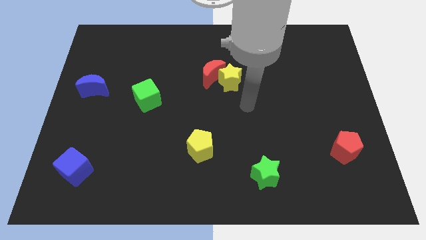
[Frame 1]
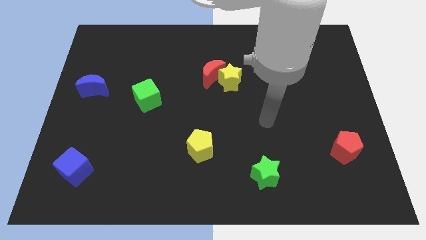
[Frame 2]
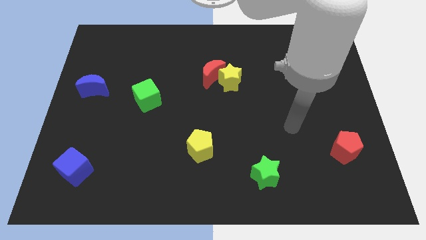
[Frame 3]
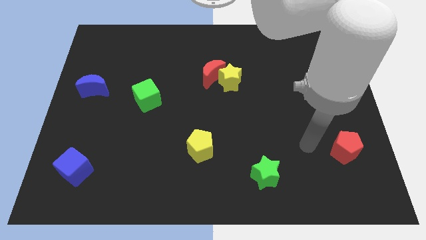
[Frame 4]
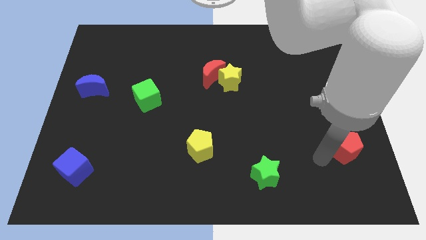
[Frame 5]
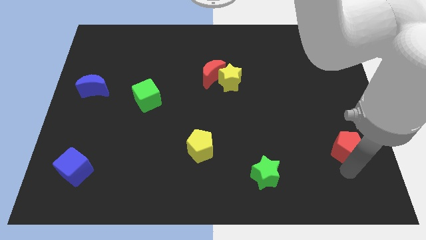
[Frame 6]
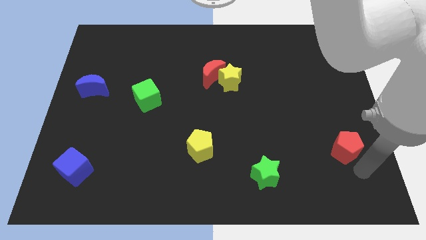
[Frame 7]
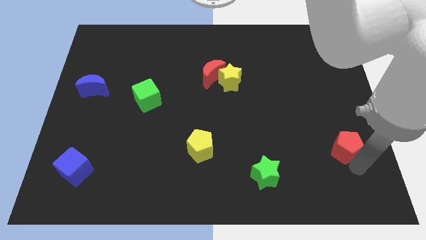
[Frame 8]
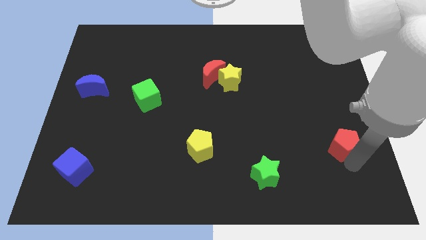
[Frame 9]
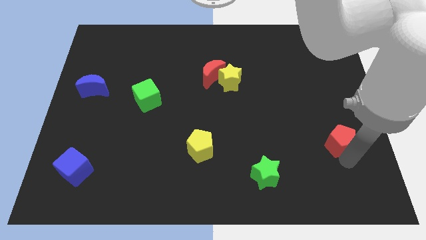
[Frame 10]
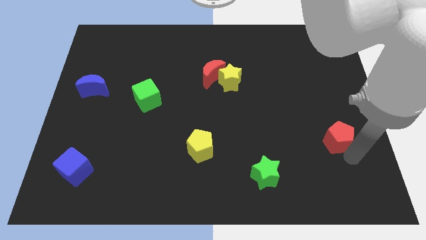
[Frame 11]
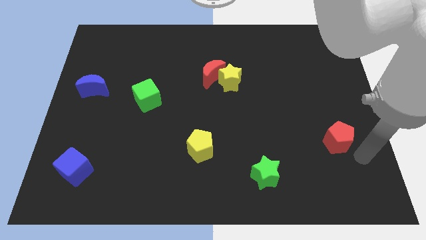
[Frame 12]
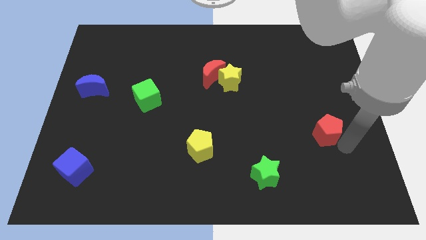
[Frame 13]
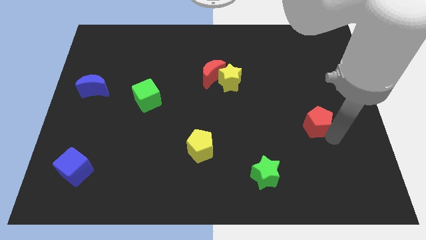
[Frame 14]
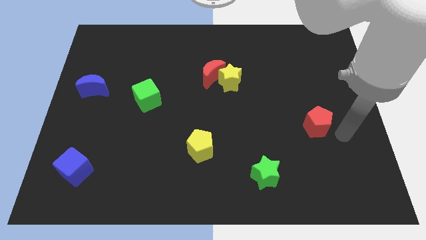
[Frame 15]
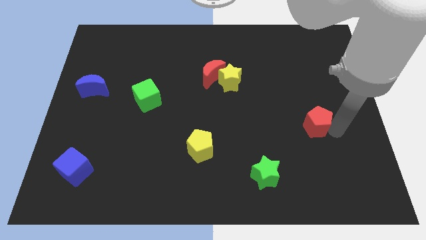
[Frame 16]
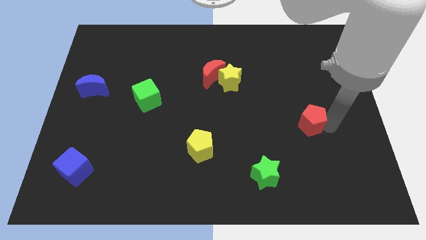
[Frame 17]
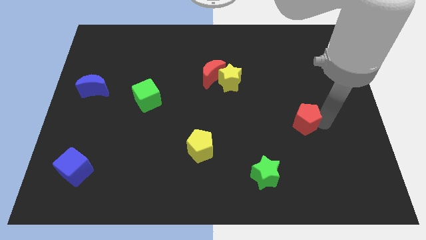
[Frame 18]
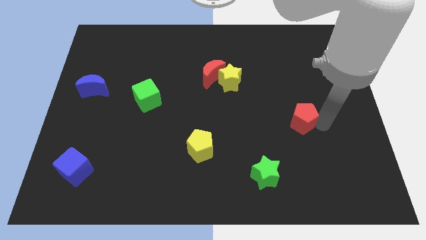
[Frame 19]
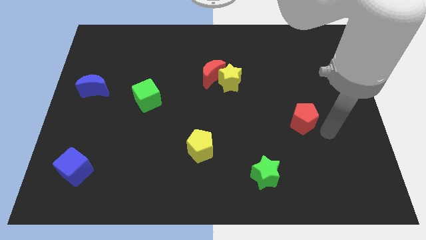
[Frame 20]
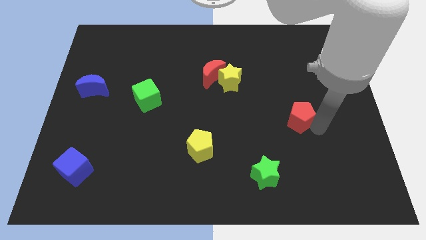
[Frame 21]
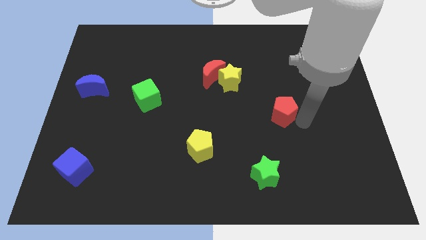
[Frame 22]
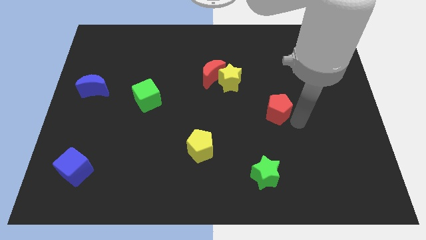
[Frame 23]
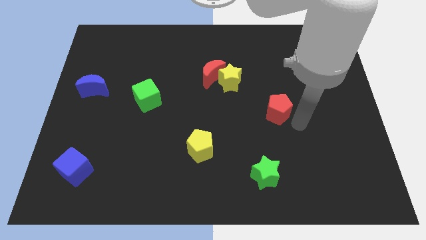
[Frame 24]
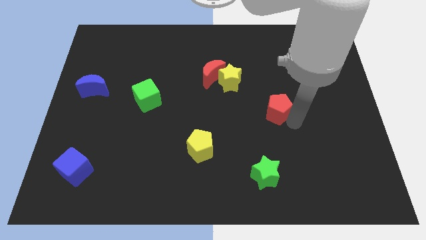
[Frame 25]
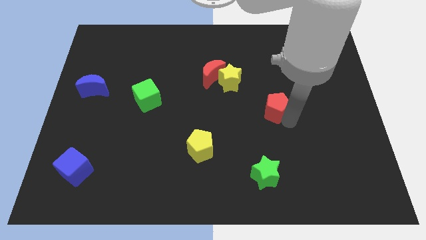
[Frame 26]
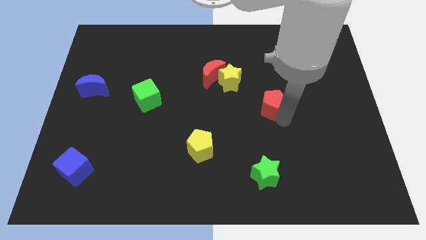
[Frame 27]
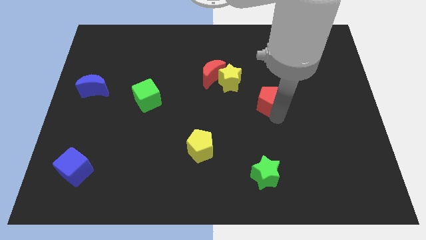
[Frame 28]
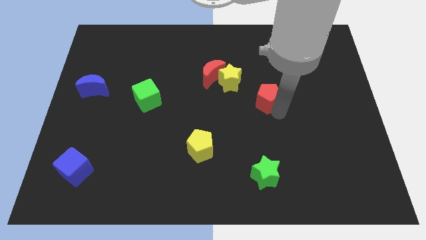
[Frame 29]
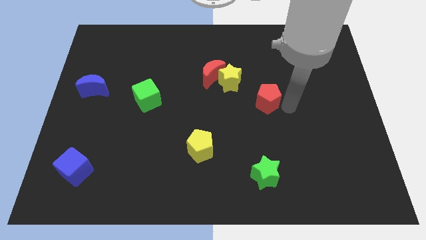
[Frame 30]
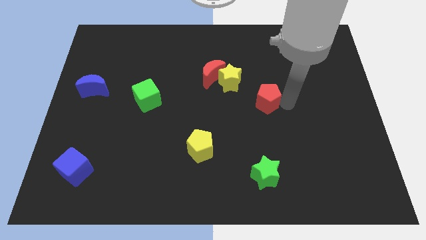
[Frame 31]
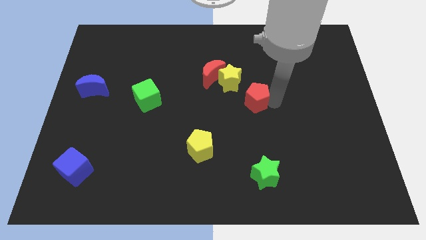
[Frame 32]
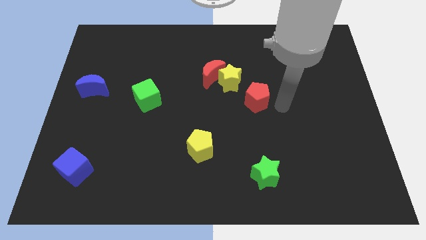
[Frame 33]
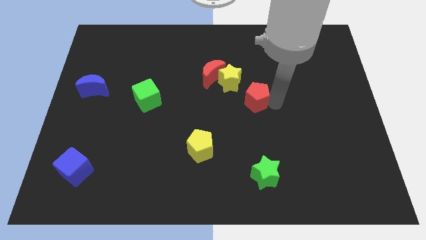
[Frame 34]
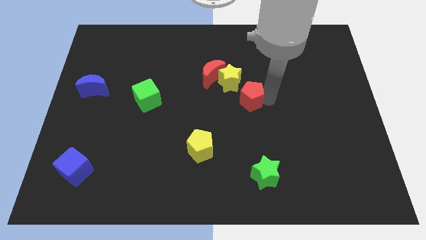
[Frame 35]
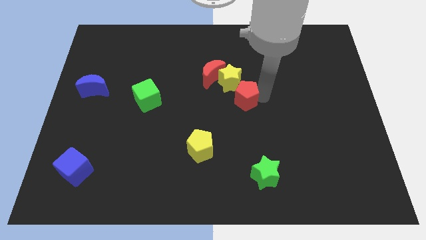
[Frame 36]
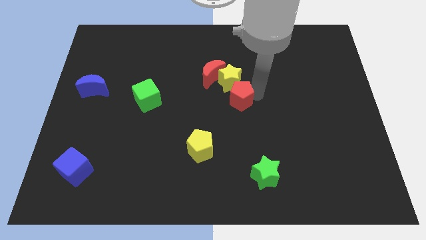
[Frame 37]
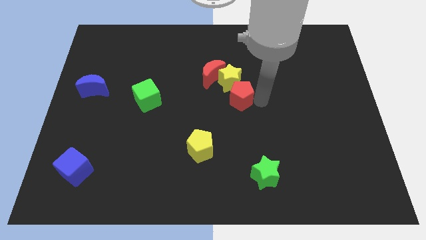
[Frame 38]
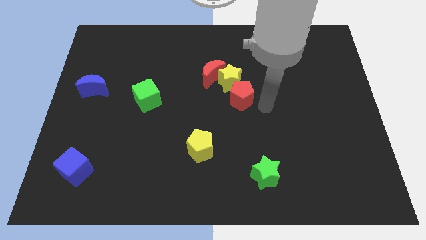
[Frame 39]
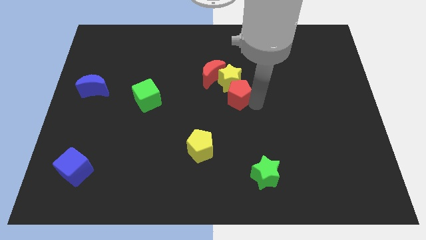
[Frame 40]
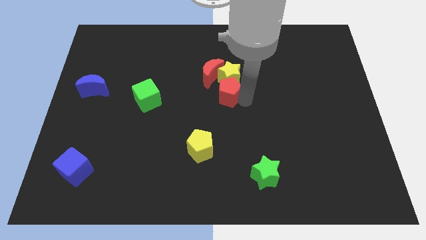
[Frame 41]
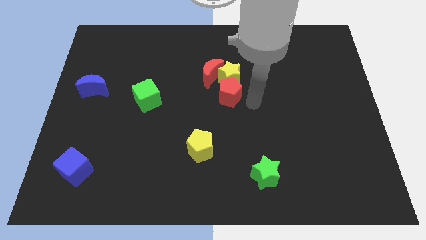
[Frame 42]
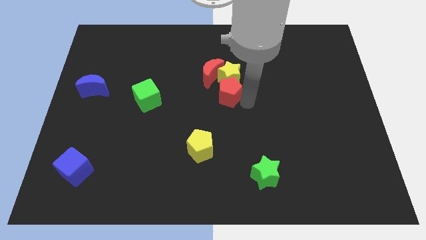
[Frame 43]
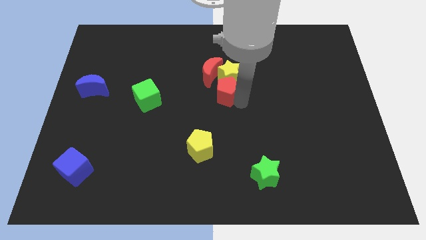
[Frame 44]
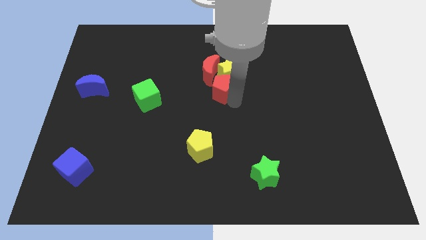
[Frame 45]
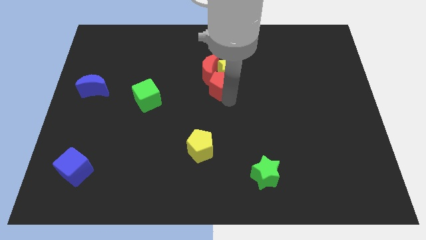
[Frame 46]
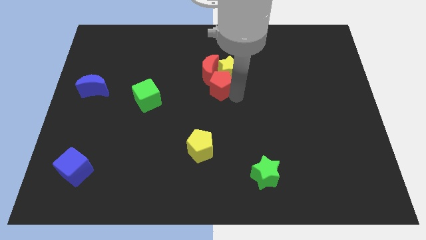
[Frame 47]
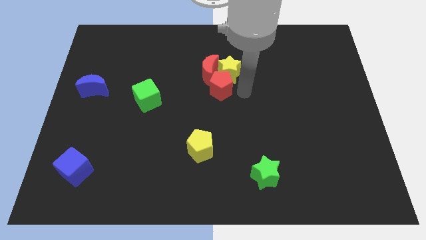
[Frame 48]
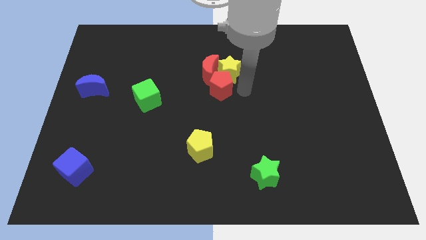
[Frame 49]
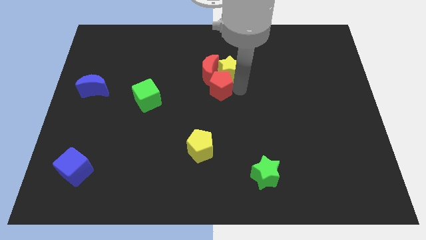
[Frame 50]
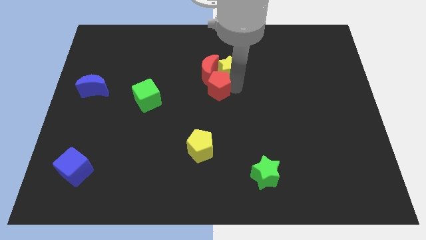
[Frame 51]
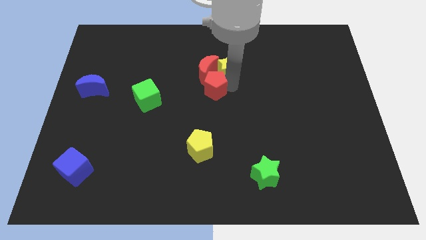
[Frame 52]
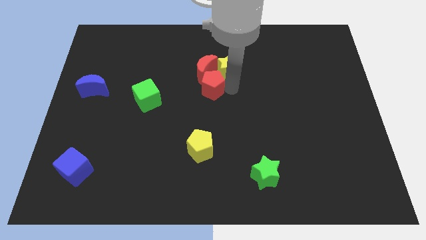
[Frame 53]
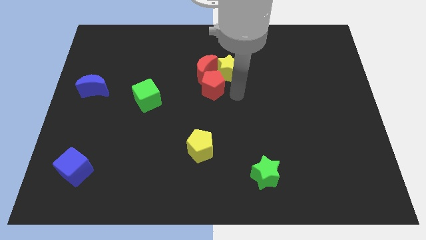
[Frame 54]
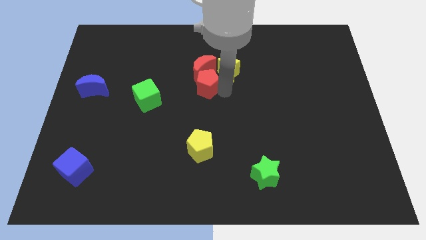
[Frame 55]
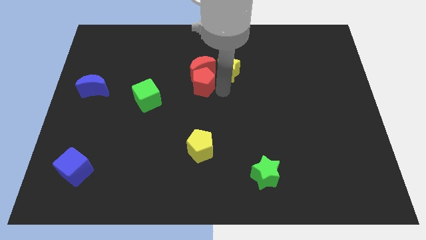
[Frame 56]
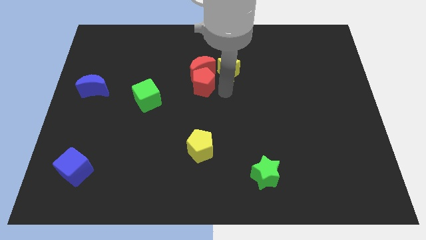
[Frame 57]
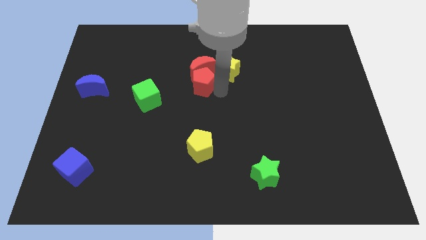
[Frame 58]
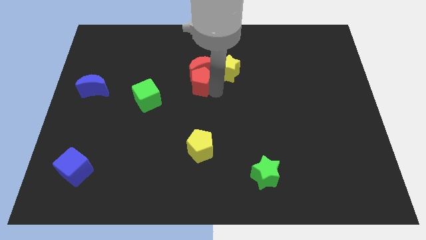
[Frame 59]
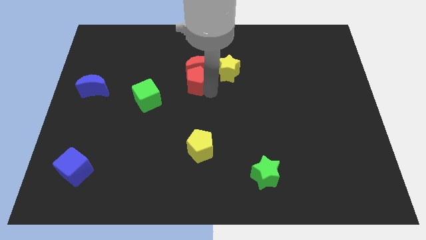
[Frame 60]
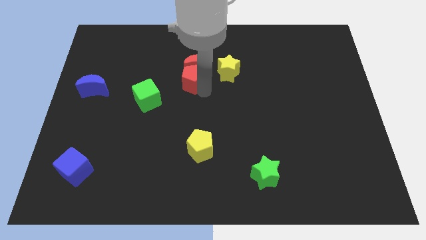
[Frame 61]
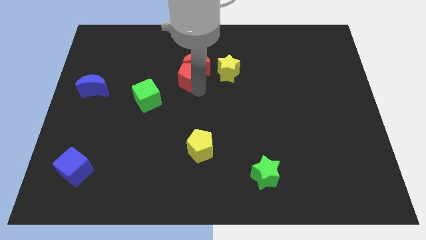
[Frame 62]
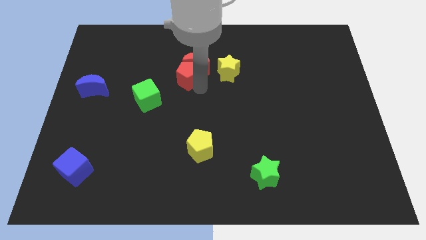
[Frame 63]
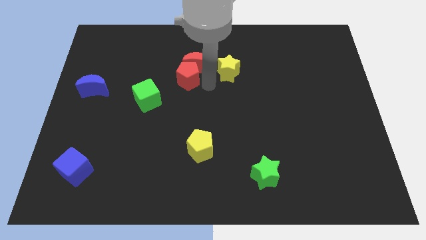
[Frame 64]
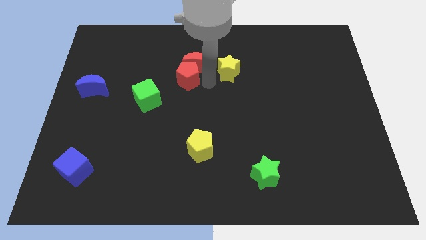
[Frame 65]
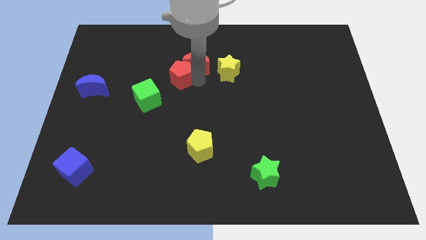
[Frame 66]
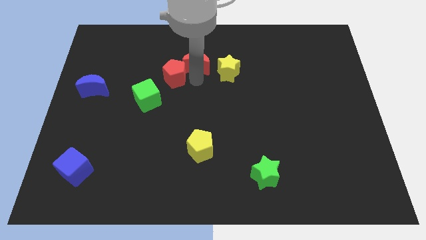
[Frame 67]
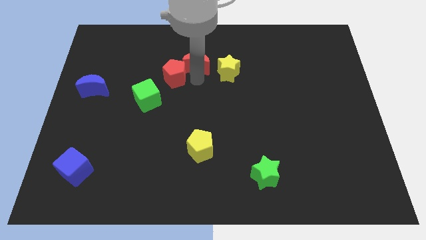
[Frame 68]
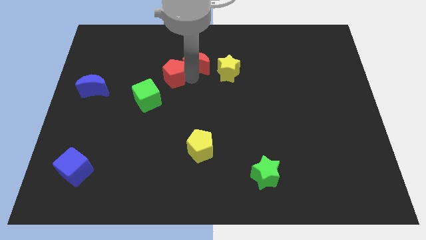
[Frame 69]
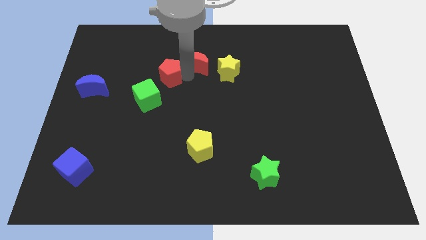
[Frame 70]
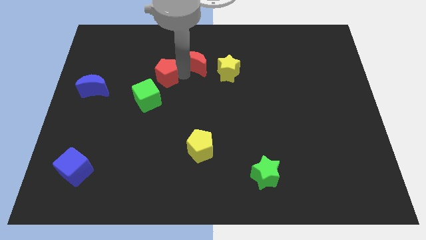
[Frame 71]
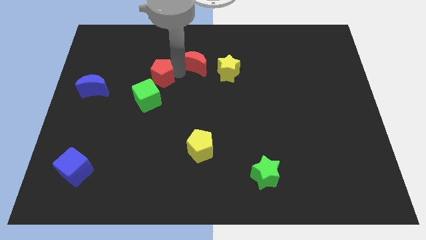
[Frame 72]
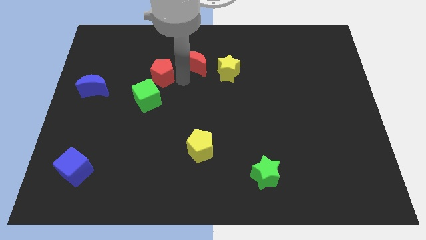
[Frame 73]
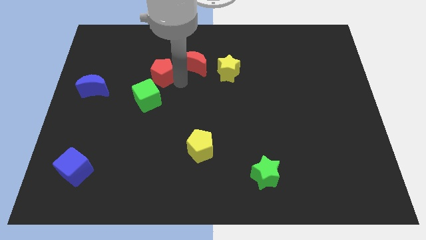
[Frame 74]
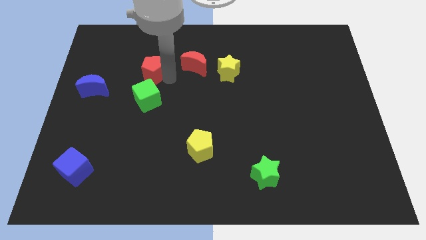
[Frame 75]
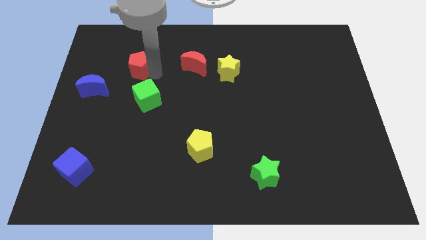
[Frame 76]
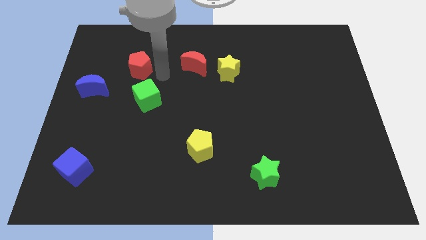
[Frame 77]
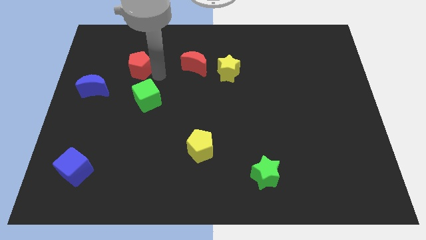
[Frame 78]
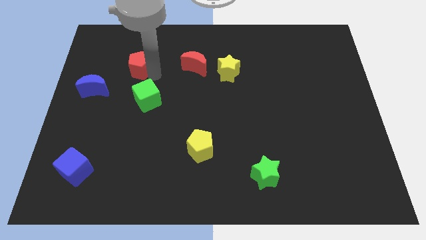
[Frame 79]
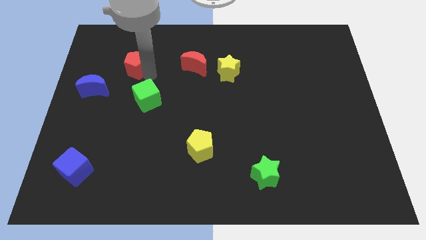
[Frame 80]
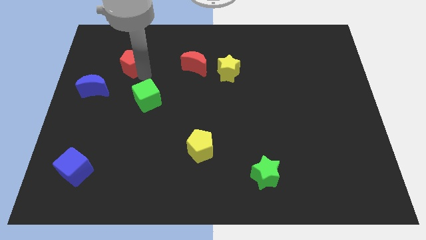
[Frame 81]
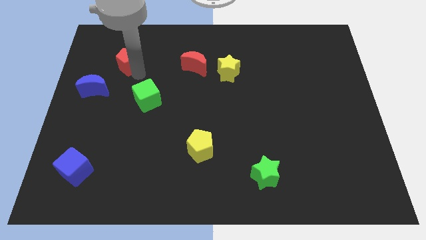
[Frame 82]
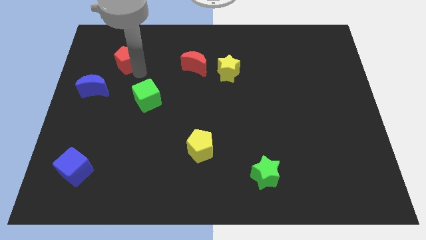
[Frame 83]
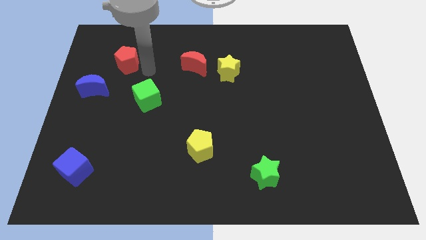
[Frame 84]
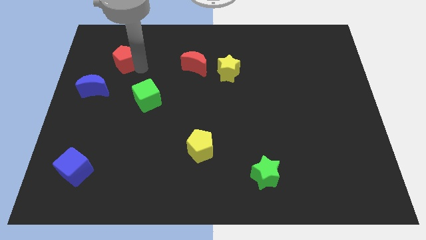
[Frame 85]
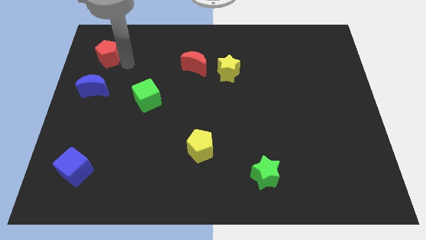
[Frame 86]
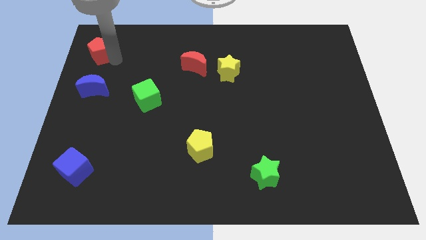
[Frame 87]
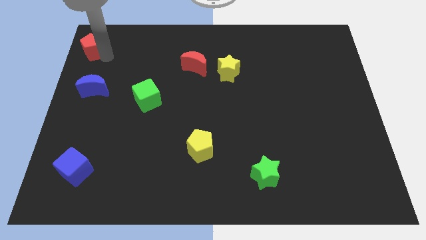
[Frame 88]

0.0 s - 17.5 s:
slide the red pentagon to the top left corner
